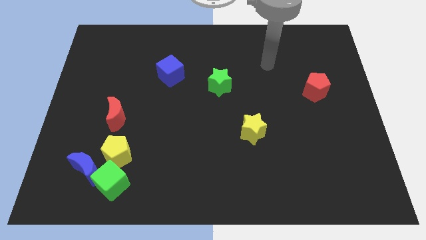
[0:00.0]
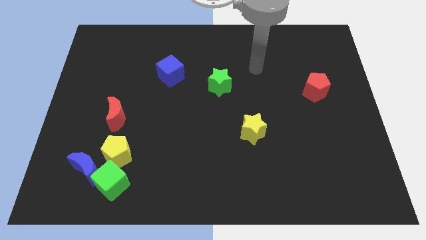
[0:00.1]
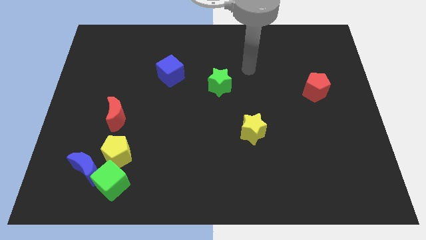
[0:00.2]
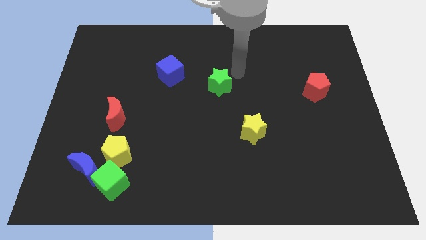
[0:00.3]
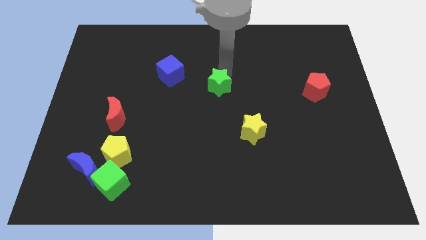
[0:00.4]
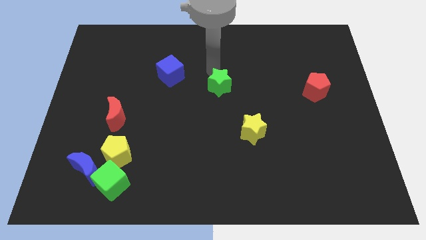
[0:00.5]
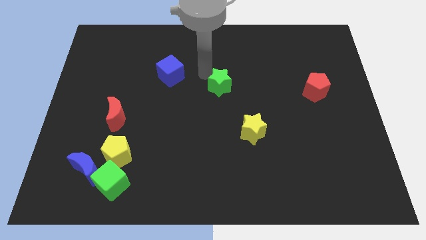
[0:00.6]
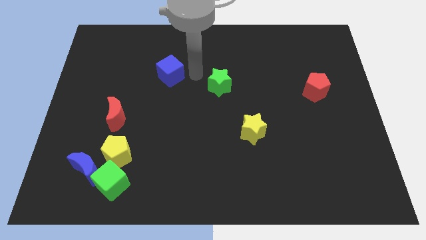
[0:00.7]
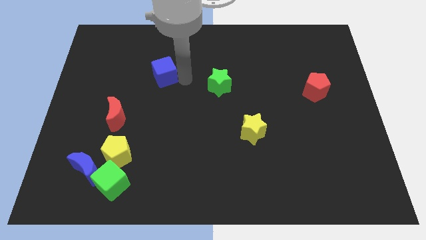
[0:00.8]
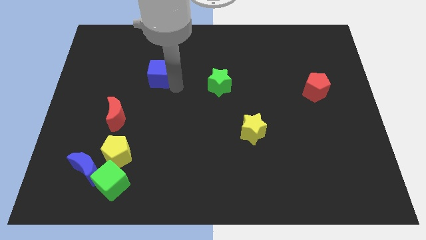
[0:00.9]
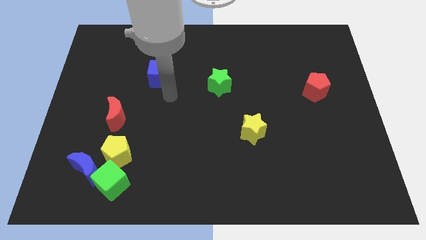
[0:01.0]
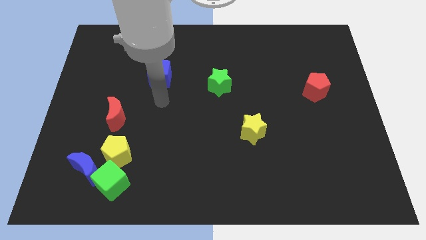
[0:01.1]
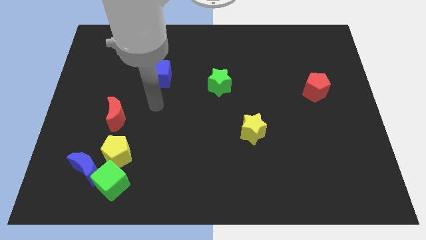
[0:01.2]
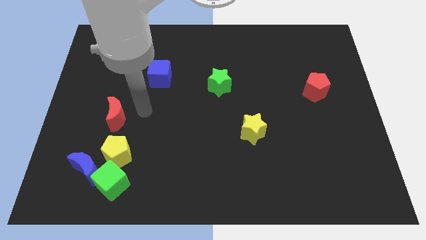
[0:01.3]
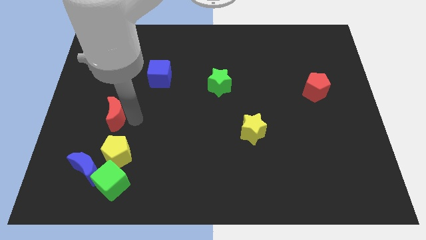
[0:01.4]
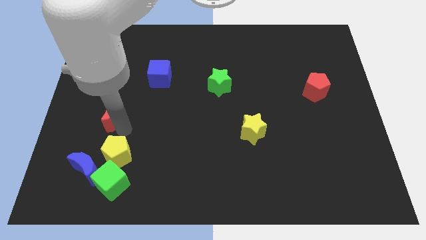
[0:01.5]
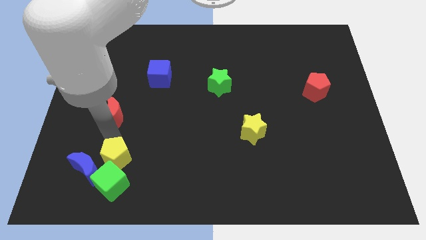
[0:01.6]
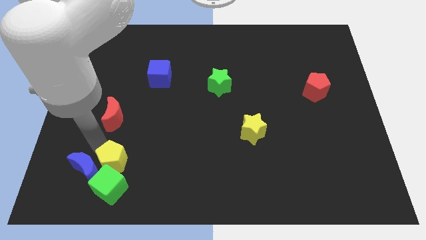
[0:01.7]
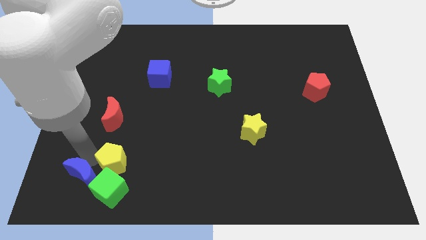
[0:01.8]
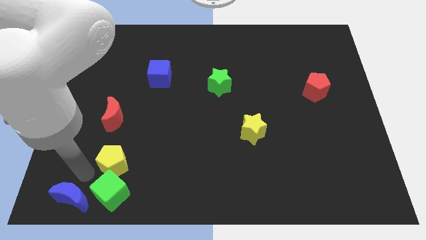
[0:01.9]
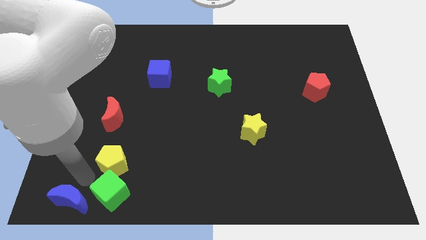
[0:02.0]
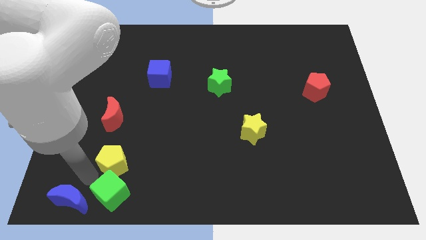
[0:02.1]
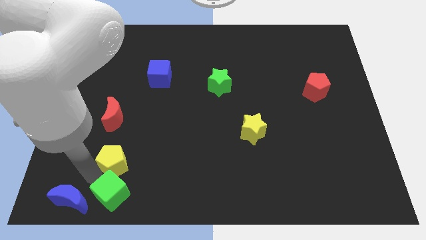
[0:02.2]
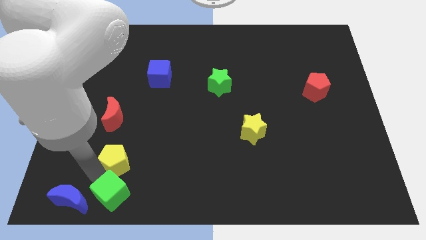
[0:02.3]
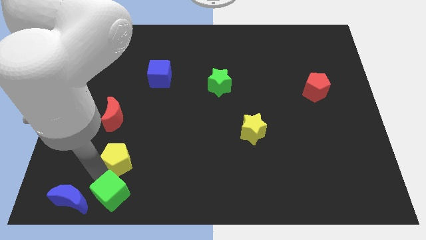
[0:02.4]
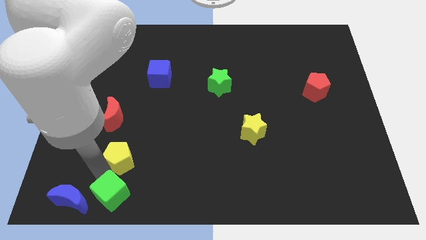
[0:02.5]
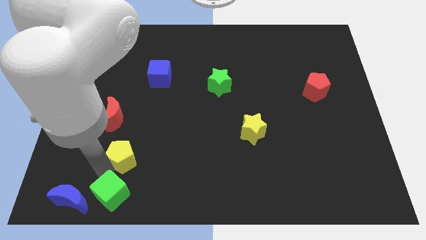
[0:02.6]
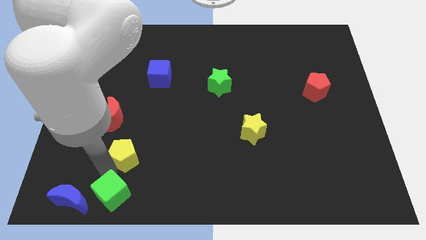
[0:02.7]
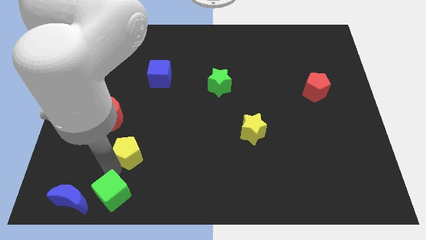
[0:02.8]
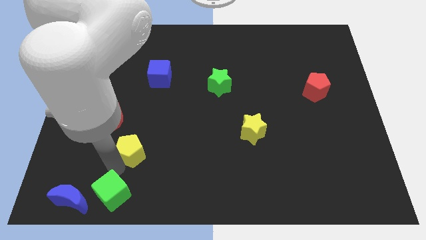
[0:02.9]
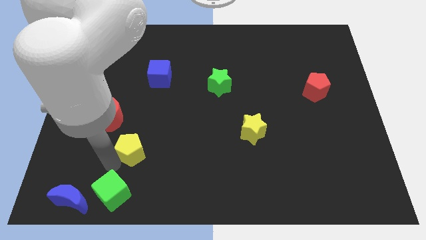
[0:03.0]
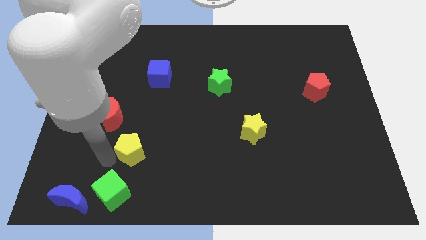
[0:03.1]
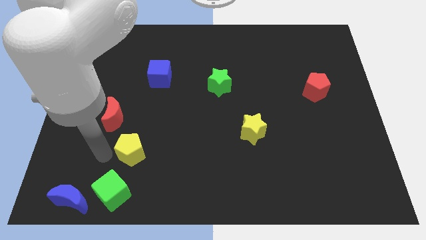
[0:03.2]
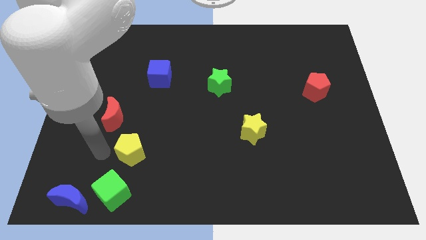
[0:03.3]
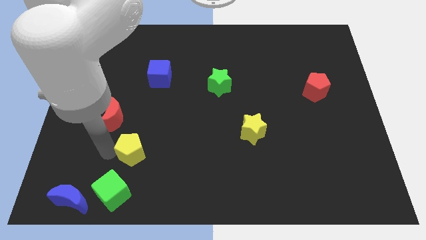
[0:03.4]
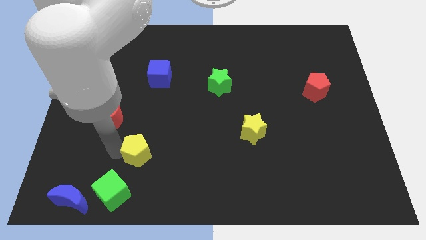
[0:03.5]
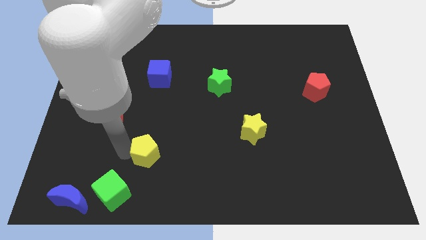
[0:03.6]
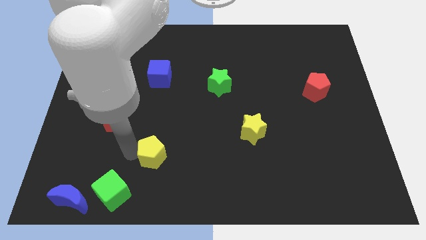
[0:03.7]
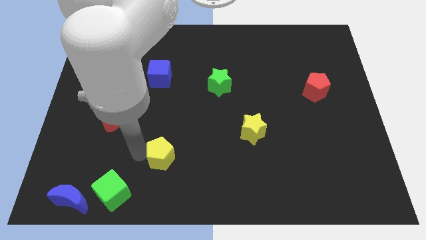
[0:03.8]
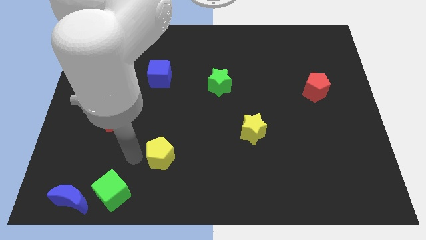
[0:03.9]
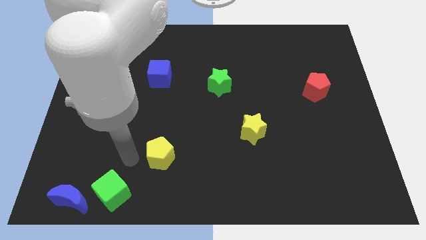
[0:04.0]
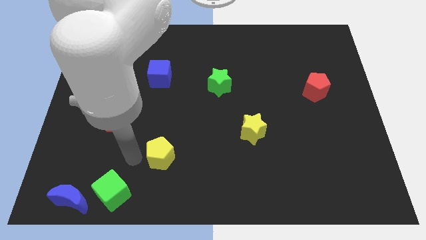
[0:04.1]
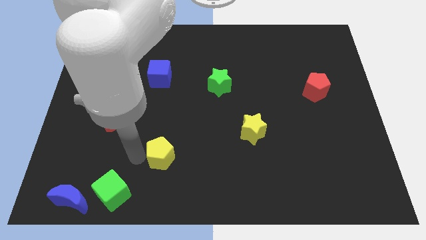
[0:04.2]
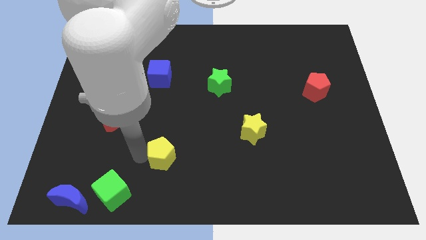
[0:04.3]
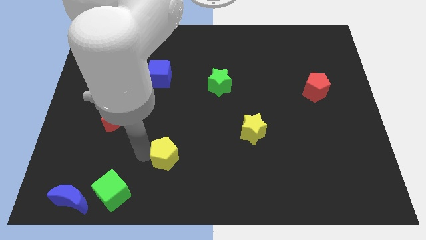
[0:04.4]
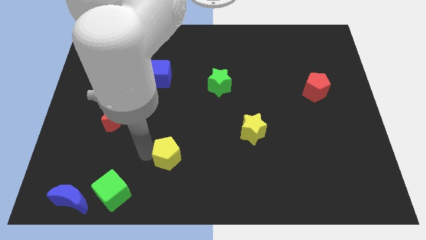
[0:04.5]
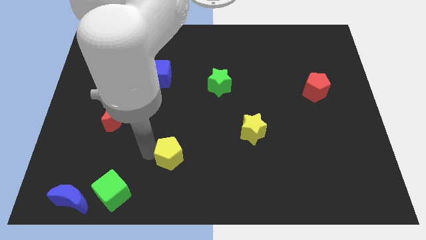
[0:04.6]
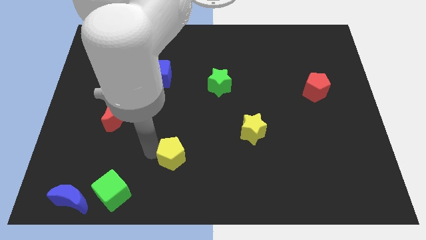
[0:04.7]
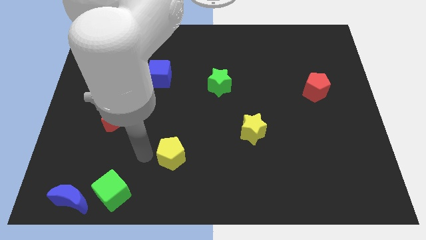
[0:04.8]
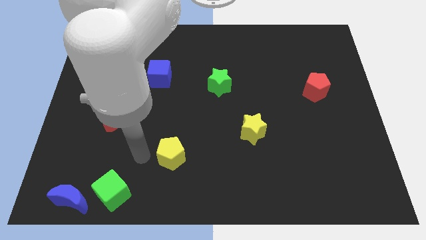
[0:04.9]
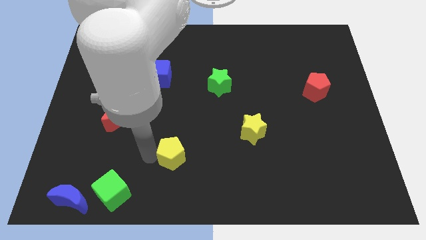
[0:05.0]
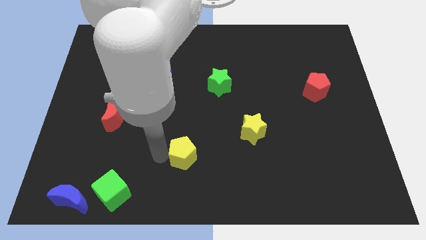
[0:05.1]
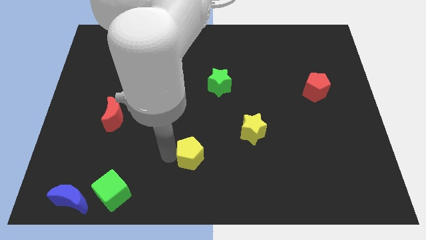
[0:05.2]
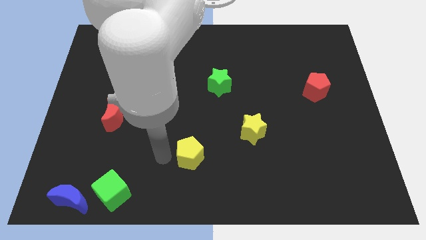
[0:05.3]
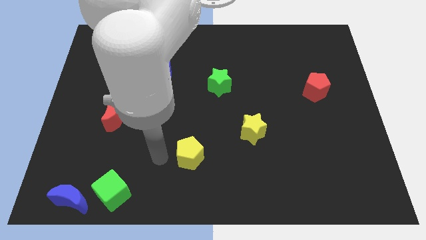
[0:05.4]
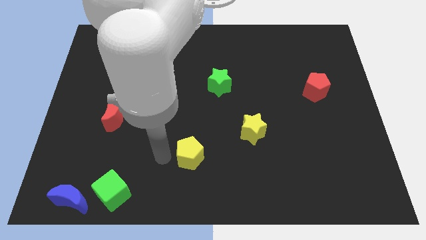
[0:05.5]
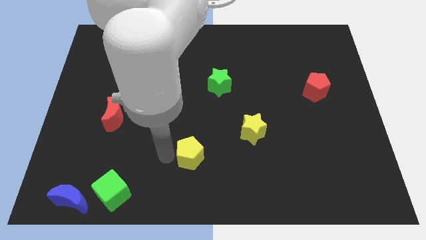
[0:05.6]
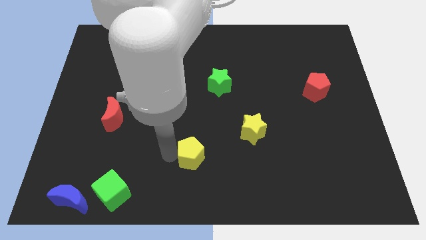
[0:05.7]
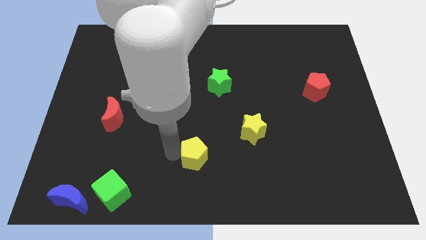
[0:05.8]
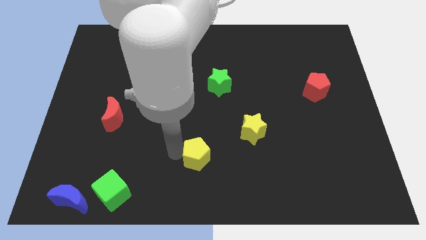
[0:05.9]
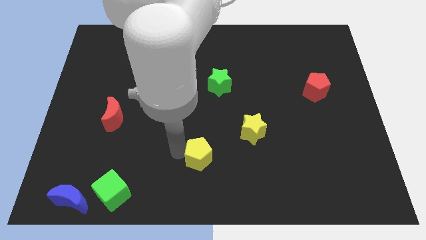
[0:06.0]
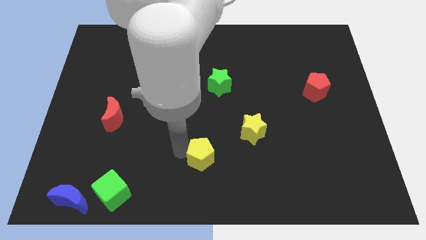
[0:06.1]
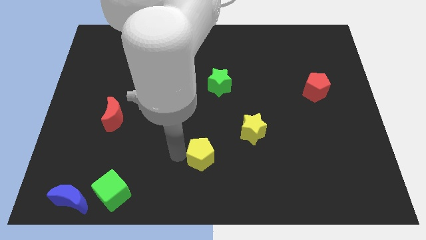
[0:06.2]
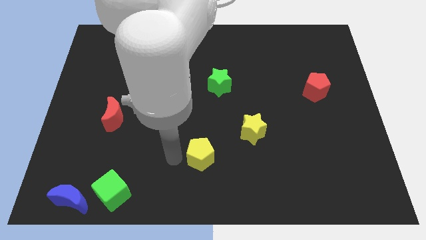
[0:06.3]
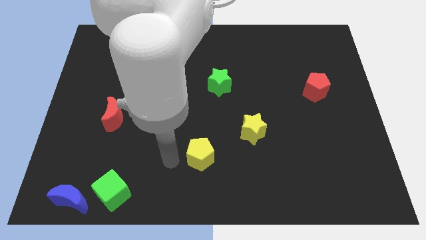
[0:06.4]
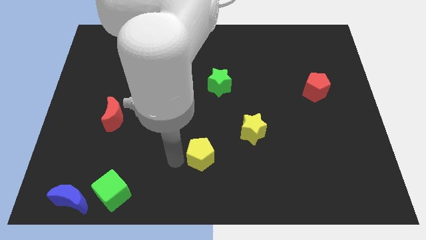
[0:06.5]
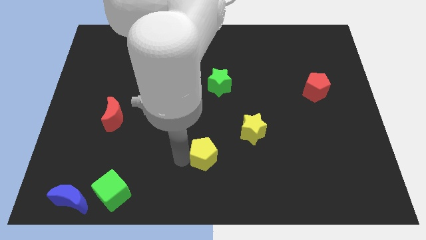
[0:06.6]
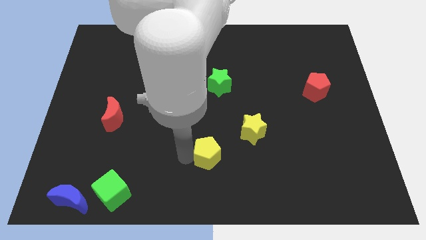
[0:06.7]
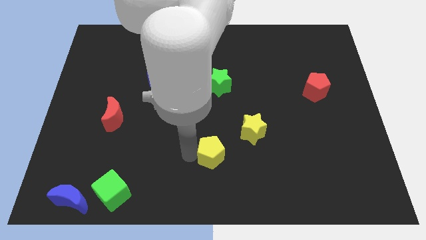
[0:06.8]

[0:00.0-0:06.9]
move the yellow pentagon to the right

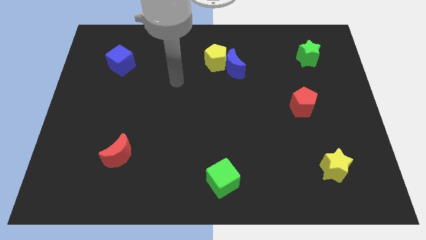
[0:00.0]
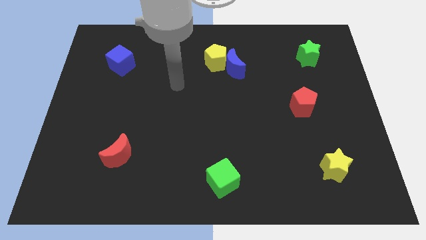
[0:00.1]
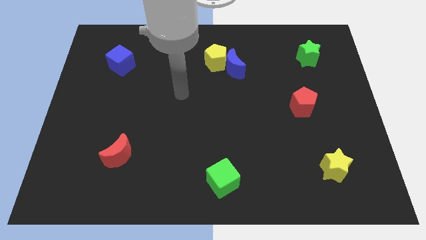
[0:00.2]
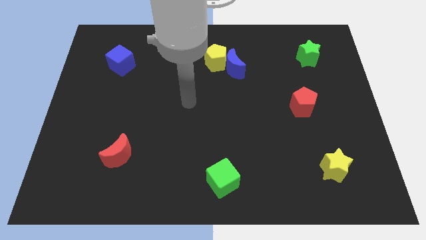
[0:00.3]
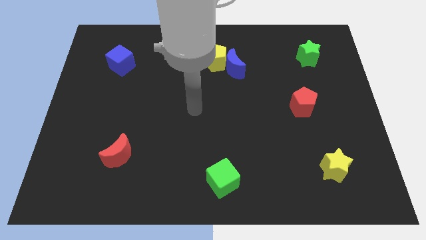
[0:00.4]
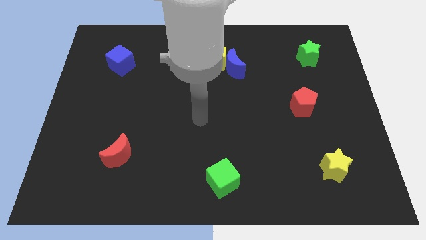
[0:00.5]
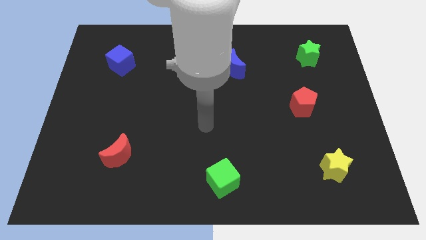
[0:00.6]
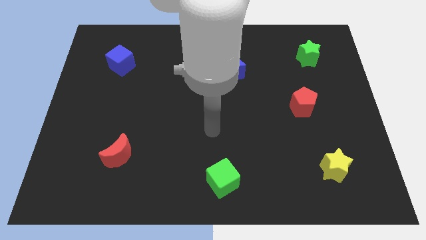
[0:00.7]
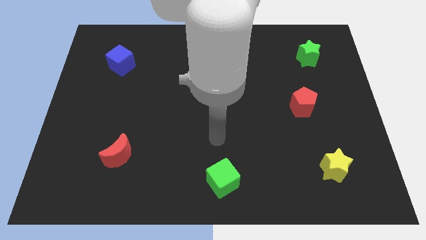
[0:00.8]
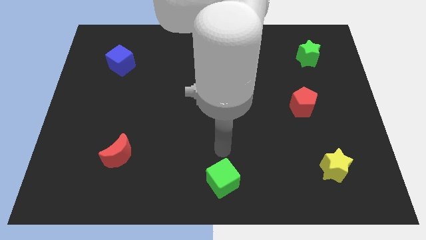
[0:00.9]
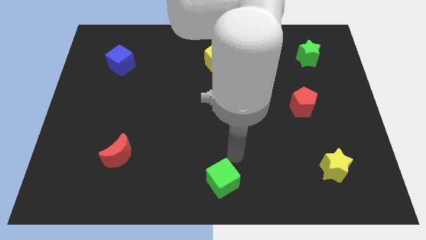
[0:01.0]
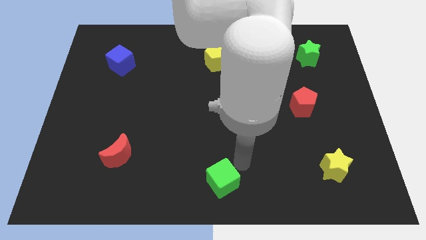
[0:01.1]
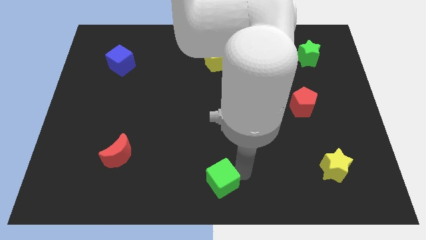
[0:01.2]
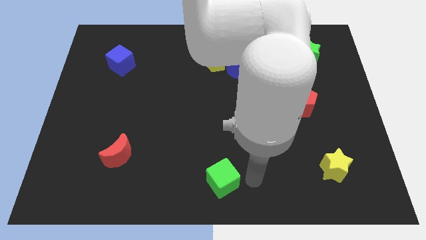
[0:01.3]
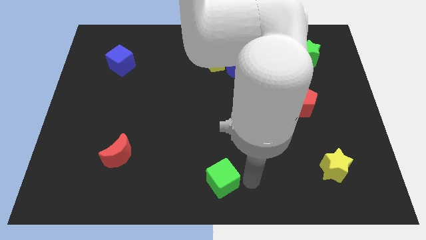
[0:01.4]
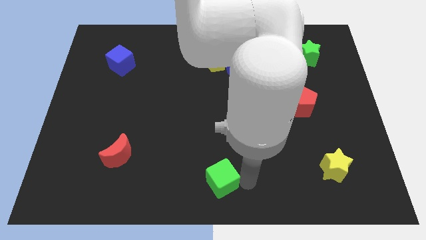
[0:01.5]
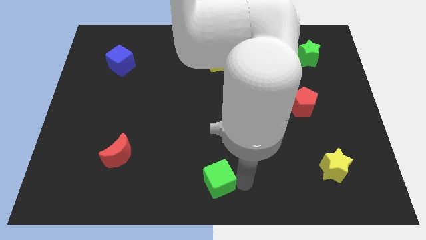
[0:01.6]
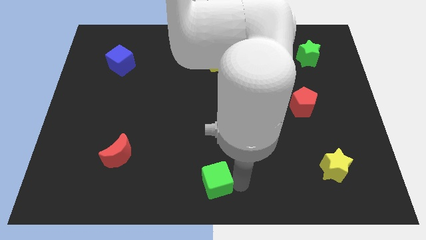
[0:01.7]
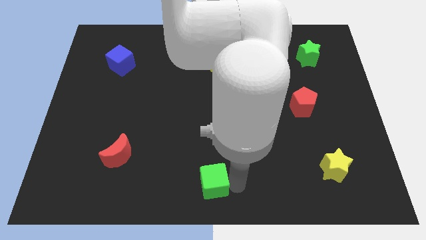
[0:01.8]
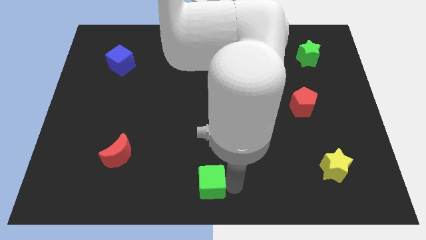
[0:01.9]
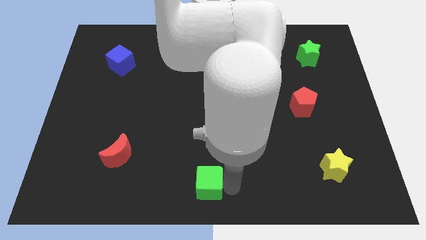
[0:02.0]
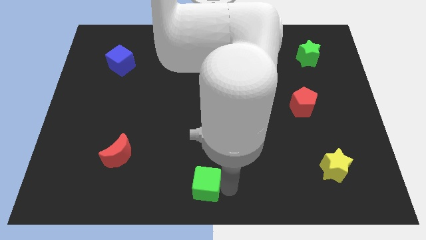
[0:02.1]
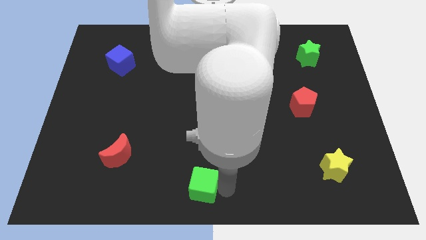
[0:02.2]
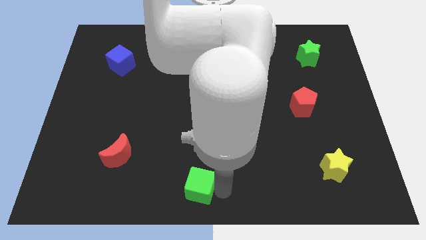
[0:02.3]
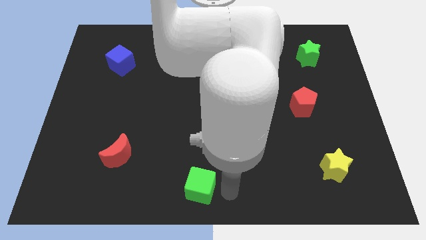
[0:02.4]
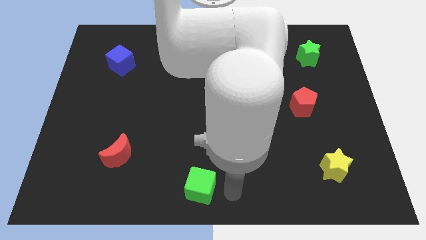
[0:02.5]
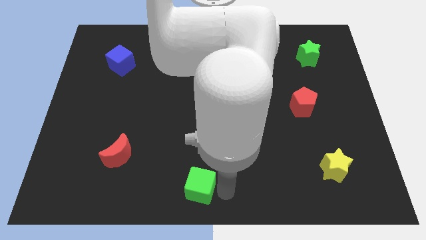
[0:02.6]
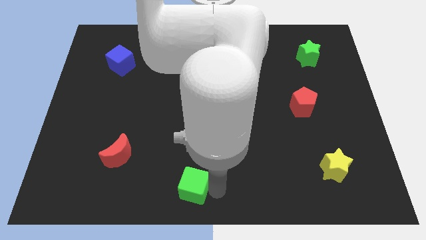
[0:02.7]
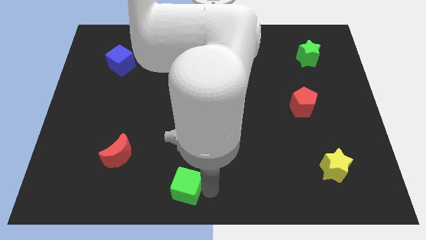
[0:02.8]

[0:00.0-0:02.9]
push the green cube to the left slightly
